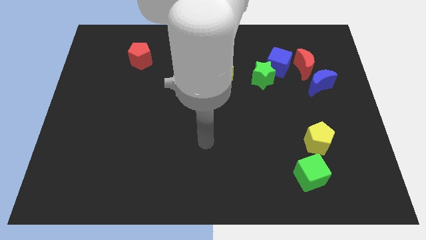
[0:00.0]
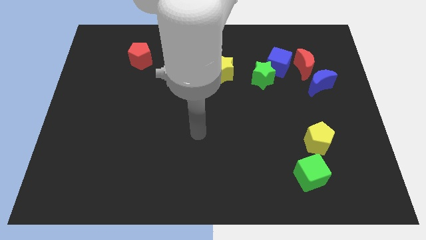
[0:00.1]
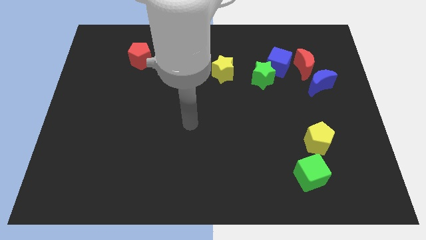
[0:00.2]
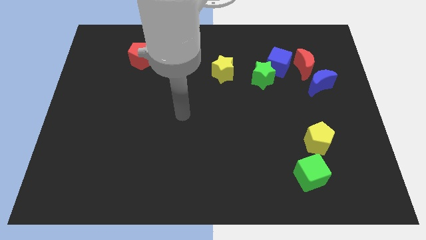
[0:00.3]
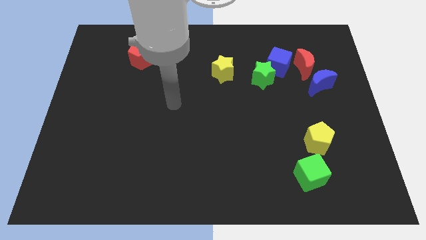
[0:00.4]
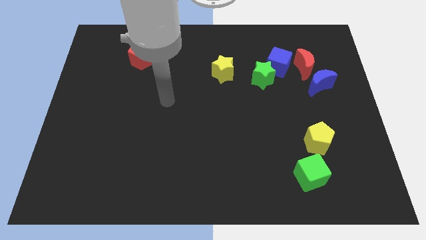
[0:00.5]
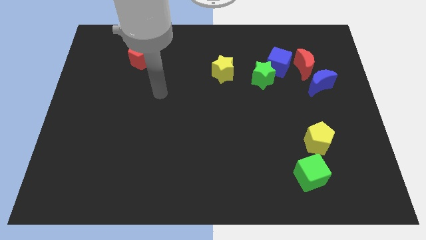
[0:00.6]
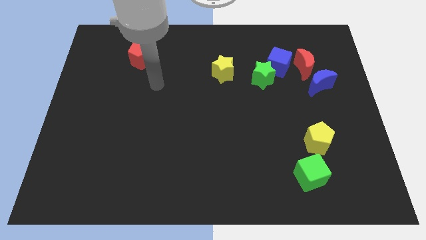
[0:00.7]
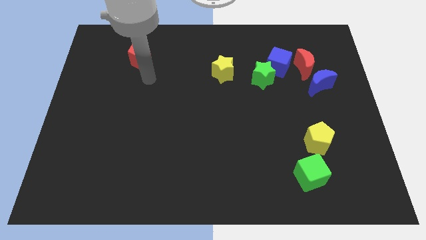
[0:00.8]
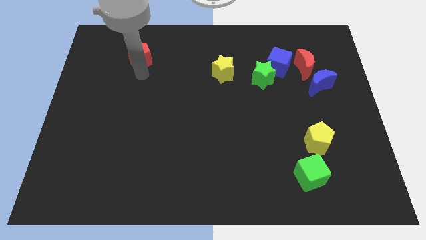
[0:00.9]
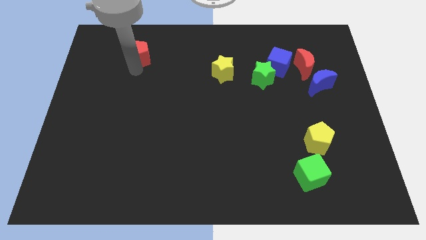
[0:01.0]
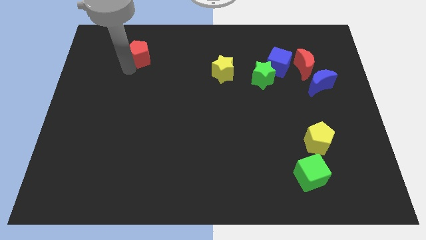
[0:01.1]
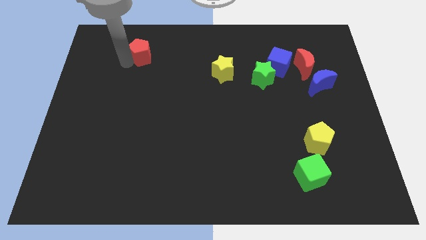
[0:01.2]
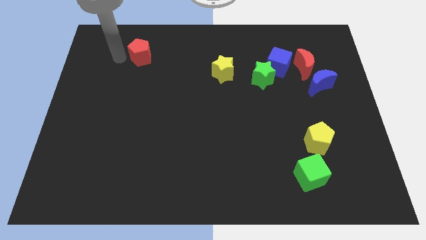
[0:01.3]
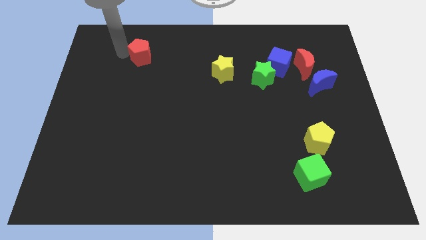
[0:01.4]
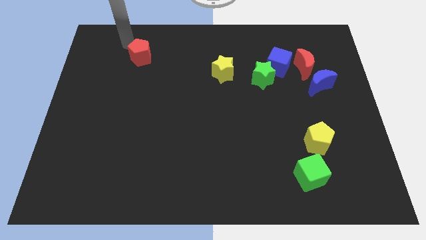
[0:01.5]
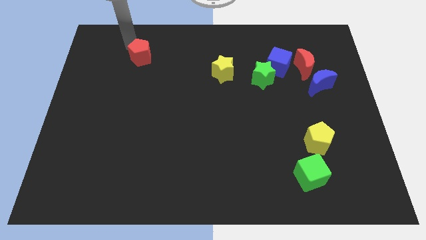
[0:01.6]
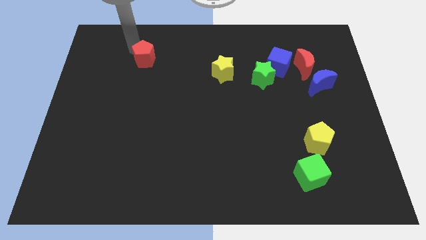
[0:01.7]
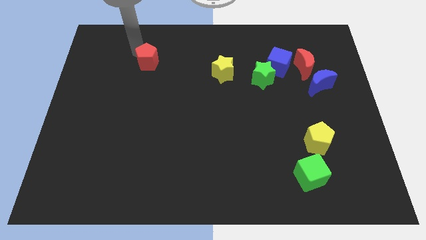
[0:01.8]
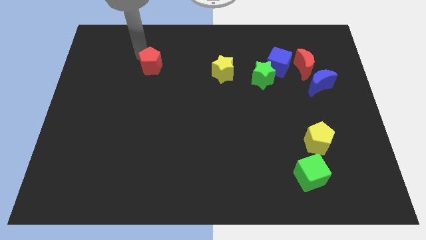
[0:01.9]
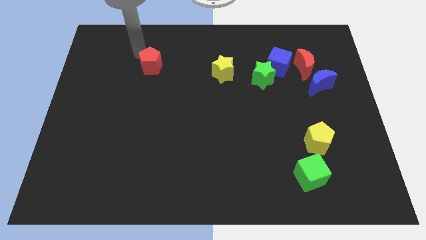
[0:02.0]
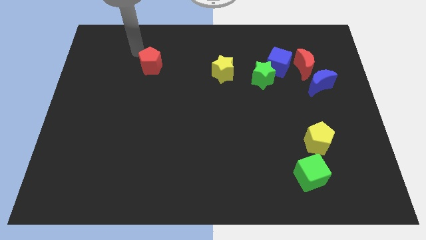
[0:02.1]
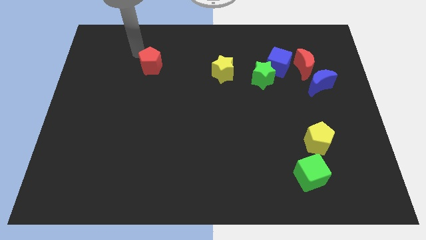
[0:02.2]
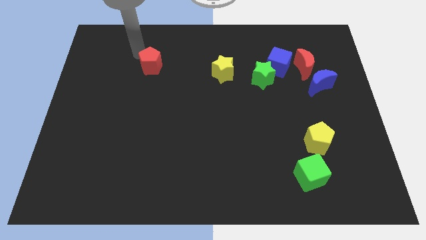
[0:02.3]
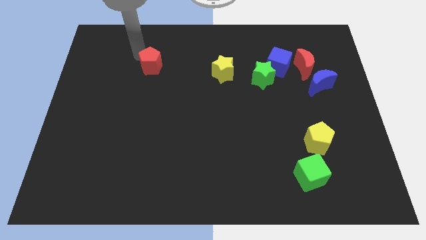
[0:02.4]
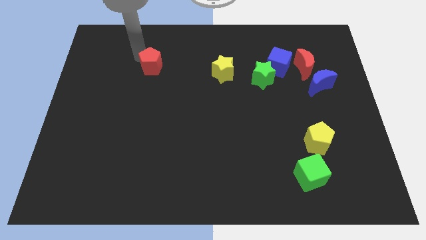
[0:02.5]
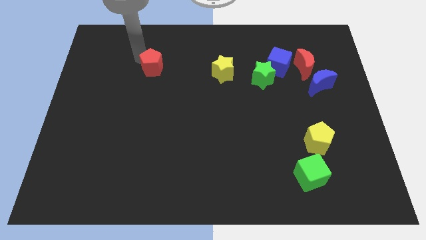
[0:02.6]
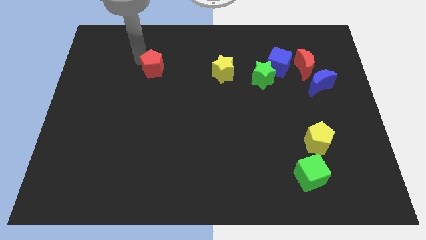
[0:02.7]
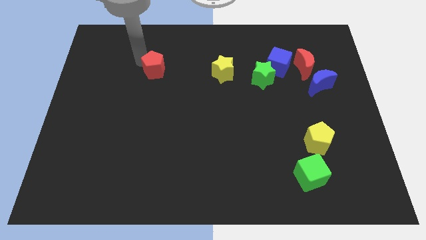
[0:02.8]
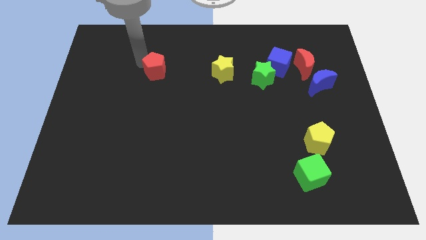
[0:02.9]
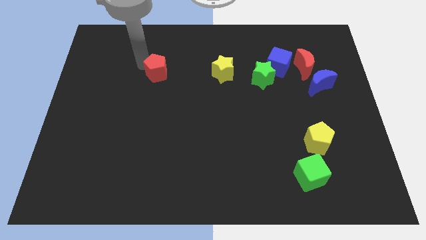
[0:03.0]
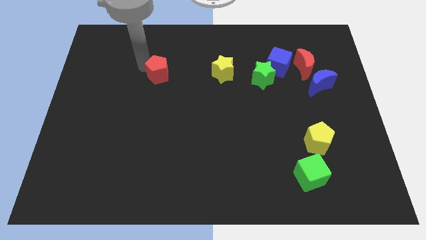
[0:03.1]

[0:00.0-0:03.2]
push the red pentagon down and to the right diagonally a bit

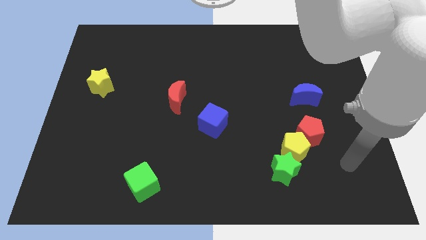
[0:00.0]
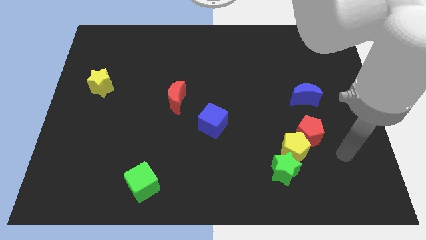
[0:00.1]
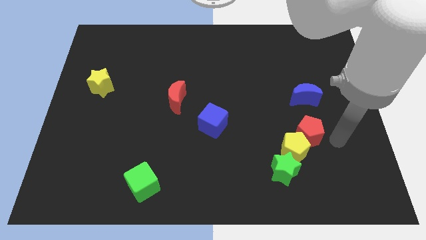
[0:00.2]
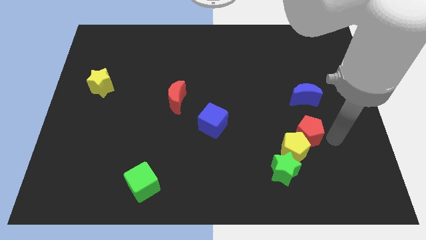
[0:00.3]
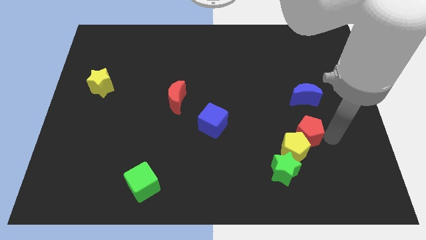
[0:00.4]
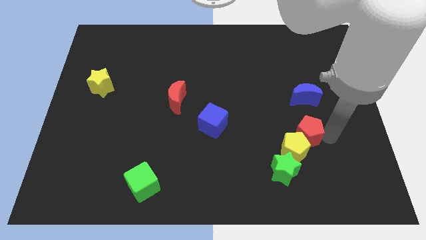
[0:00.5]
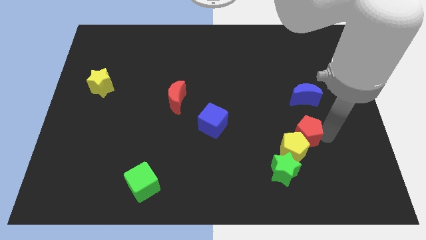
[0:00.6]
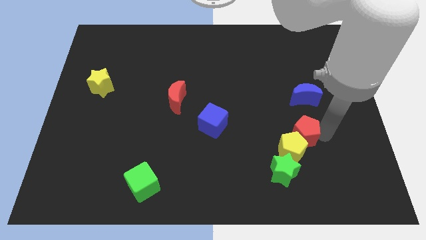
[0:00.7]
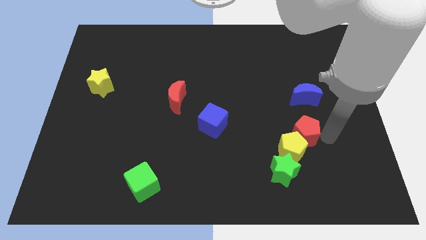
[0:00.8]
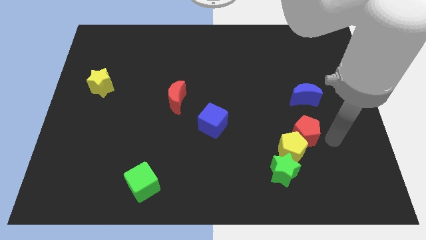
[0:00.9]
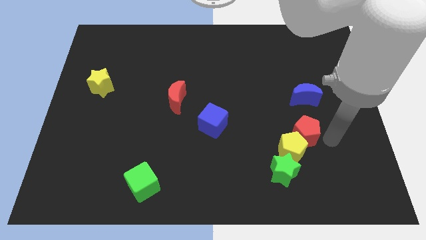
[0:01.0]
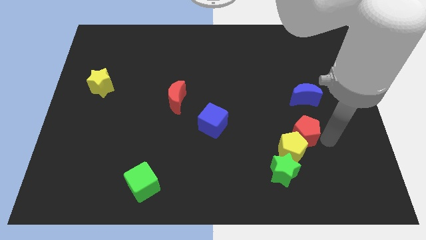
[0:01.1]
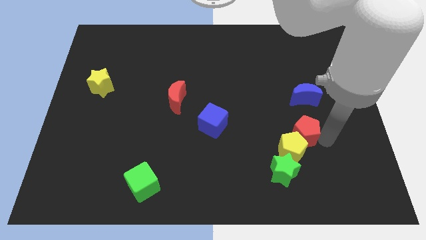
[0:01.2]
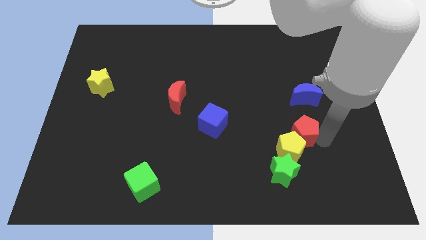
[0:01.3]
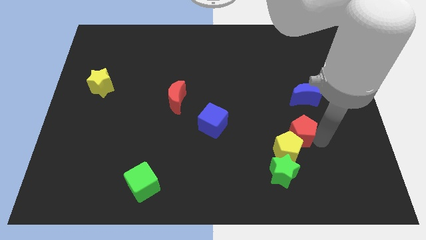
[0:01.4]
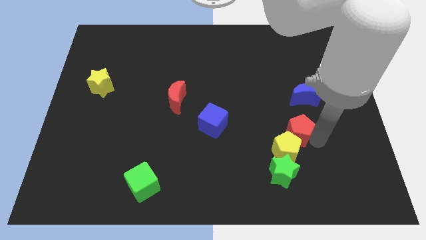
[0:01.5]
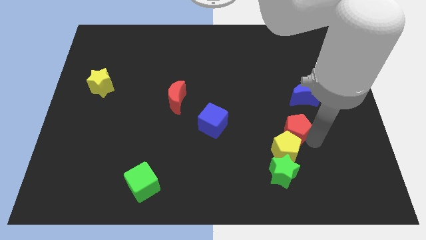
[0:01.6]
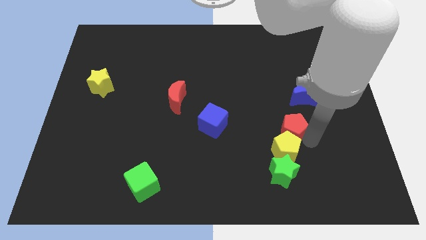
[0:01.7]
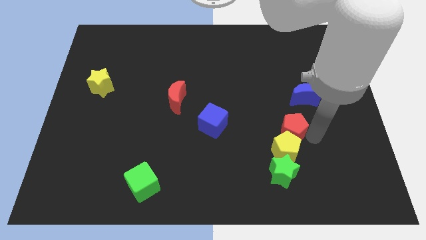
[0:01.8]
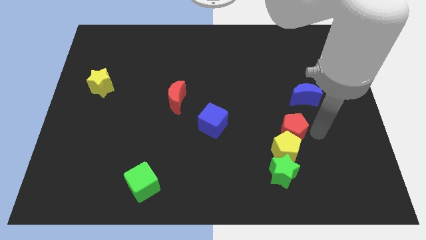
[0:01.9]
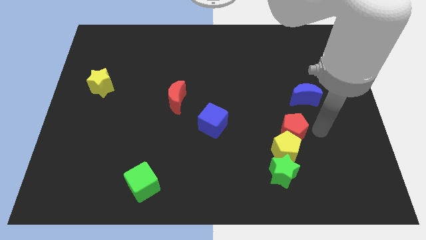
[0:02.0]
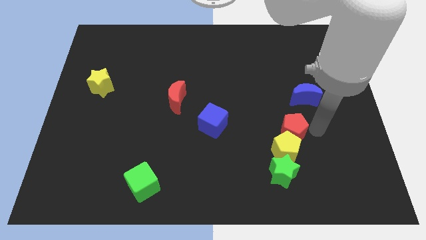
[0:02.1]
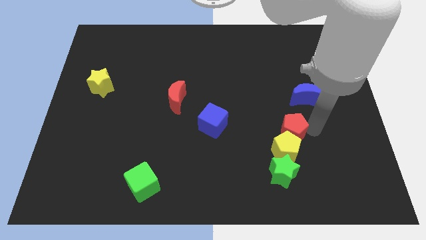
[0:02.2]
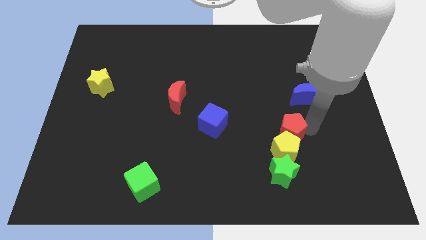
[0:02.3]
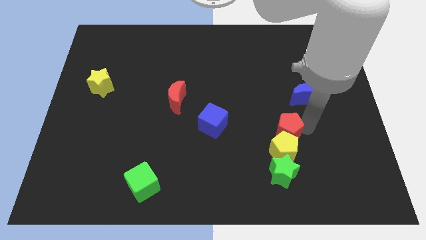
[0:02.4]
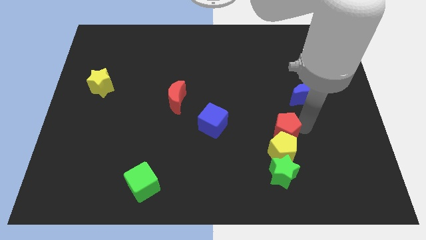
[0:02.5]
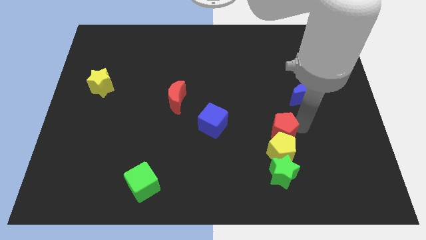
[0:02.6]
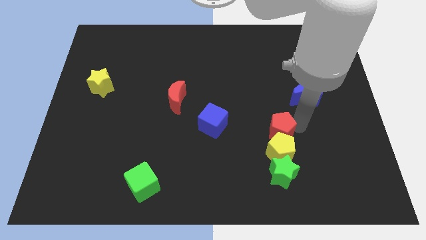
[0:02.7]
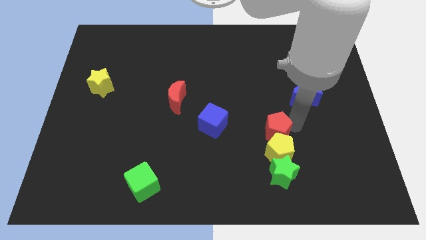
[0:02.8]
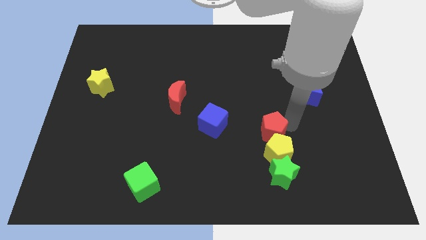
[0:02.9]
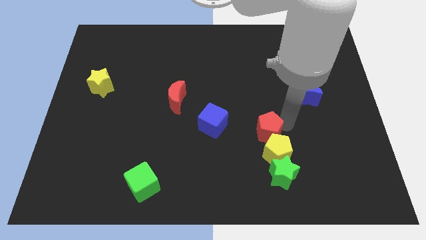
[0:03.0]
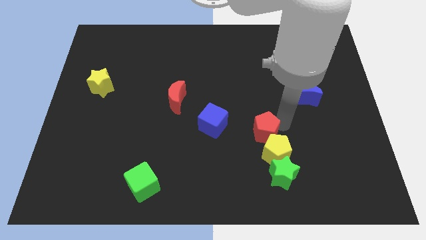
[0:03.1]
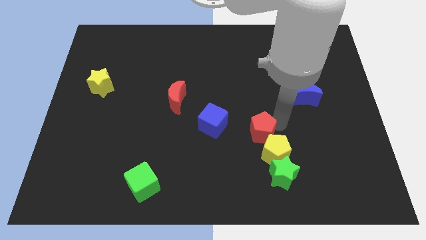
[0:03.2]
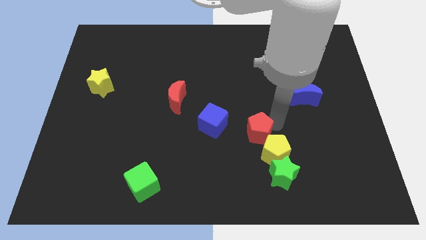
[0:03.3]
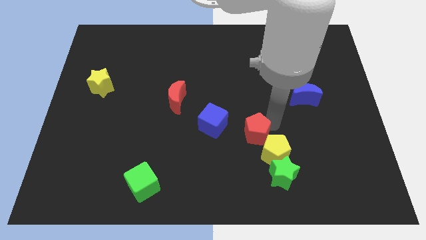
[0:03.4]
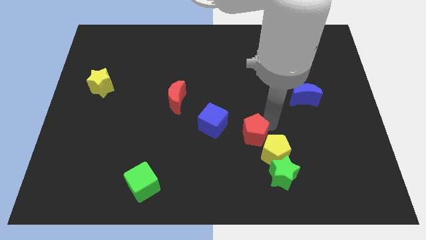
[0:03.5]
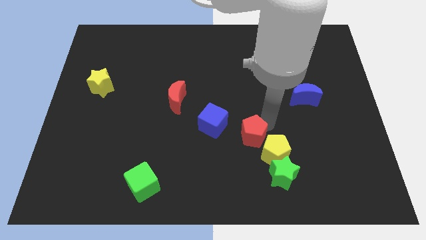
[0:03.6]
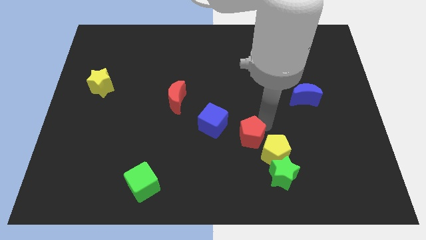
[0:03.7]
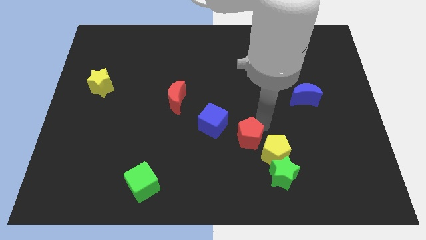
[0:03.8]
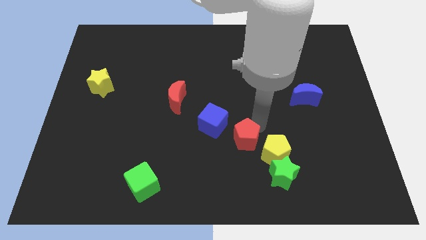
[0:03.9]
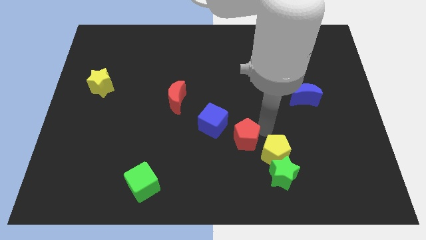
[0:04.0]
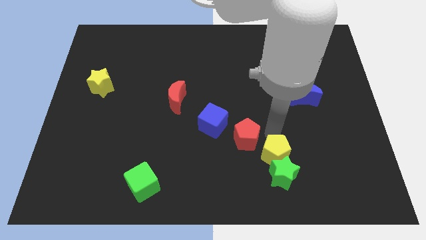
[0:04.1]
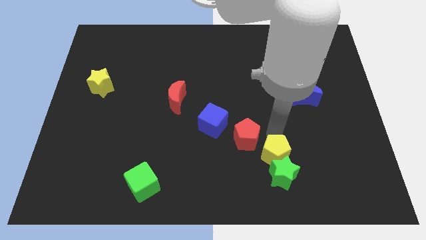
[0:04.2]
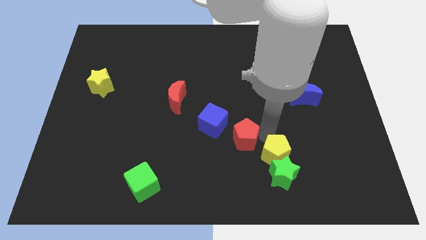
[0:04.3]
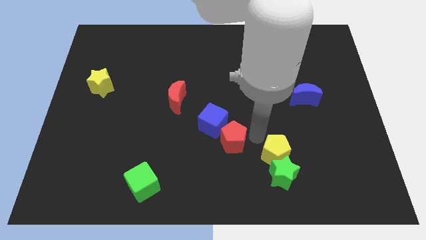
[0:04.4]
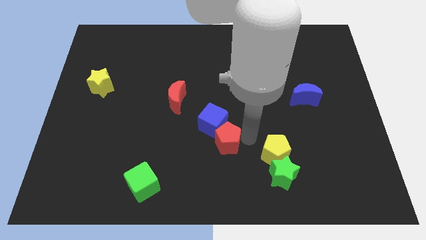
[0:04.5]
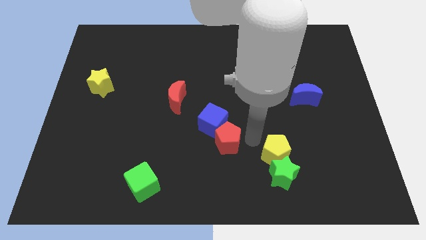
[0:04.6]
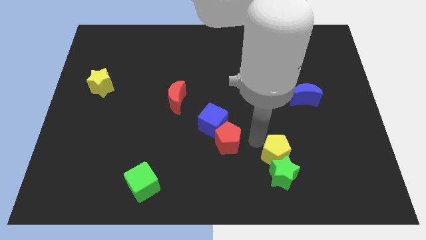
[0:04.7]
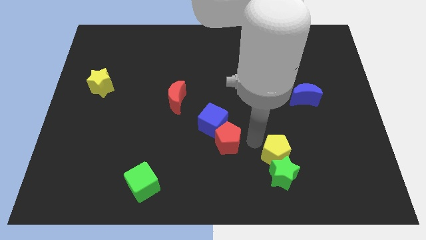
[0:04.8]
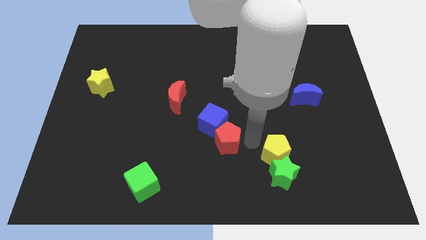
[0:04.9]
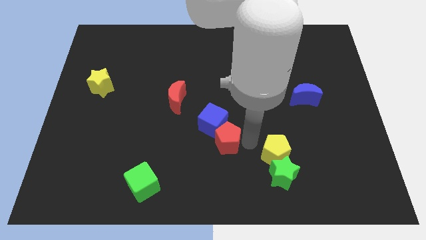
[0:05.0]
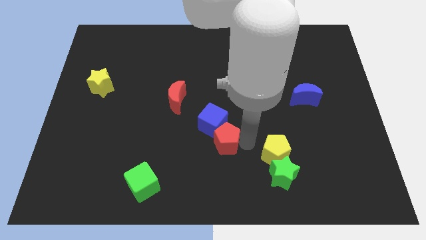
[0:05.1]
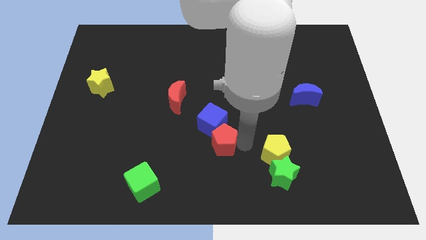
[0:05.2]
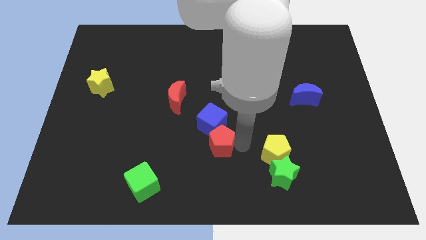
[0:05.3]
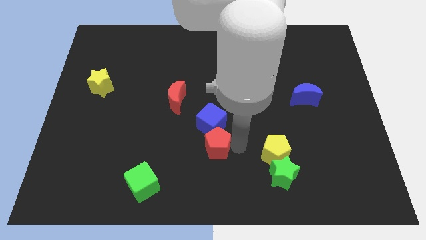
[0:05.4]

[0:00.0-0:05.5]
move the red pentagon to the left
